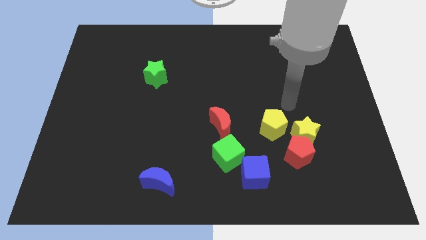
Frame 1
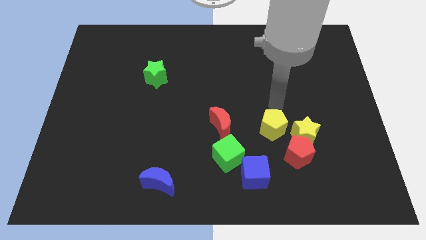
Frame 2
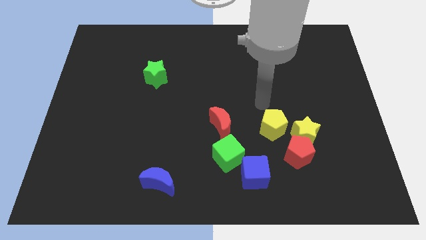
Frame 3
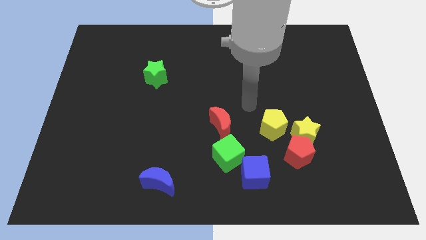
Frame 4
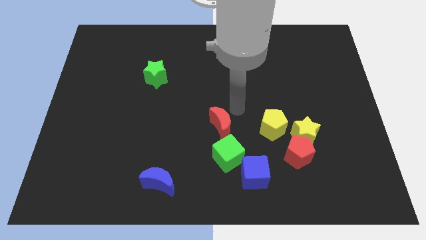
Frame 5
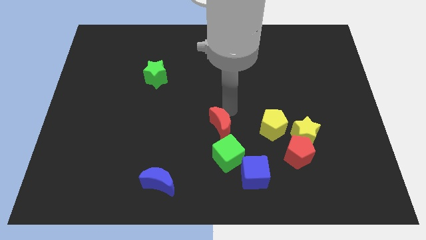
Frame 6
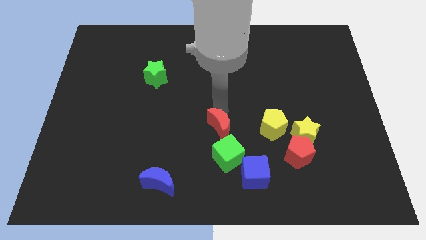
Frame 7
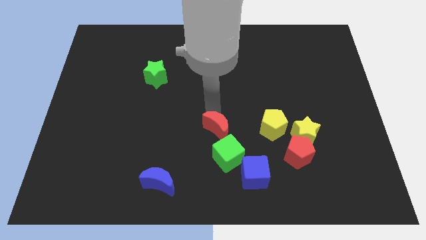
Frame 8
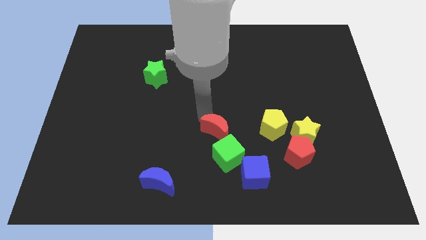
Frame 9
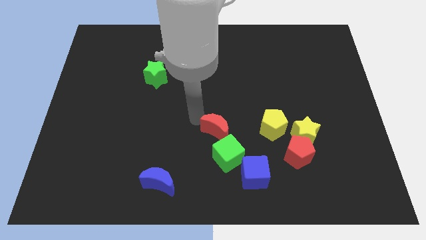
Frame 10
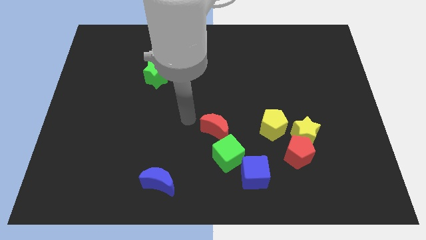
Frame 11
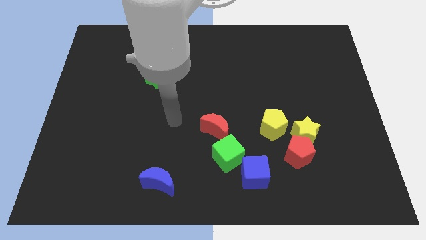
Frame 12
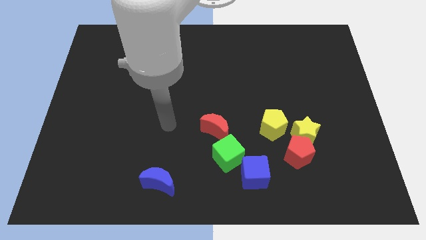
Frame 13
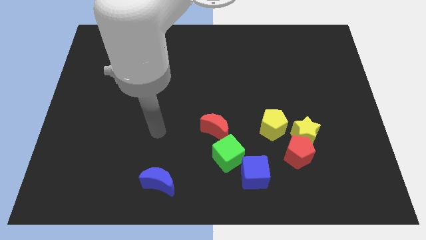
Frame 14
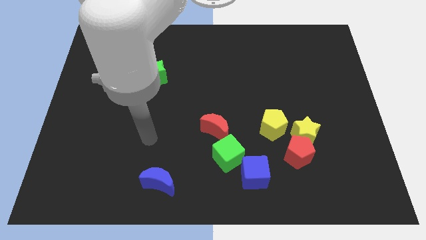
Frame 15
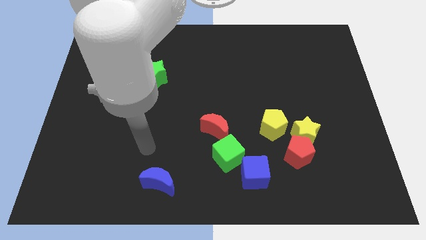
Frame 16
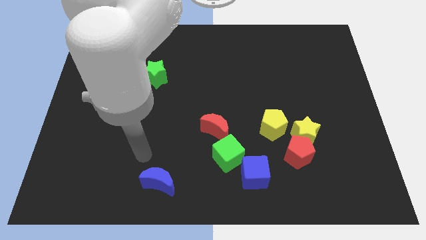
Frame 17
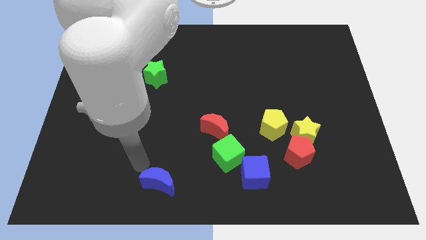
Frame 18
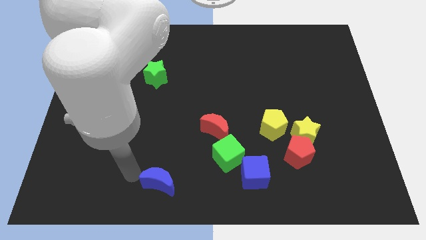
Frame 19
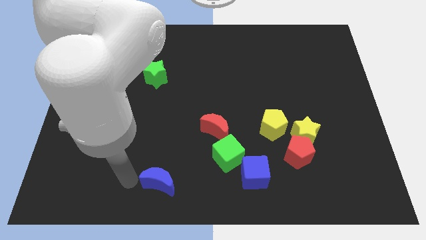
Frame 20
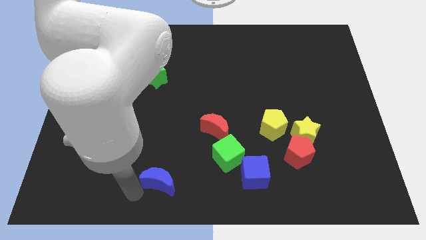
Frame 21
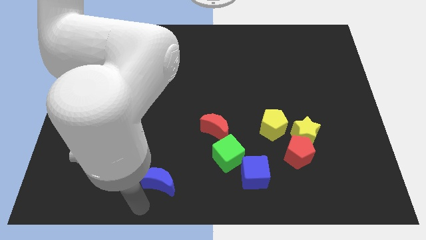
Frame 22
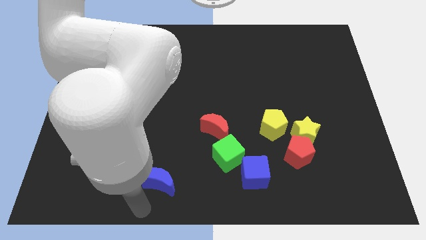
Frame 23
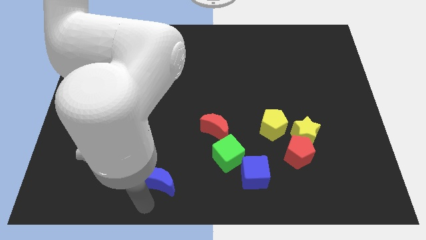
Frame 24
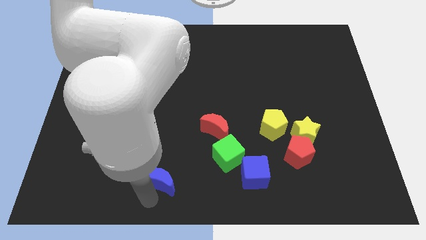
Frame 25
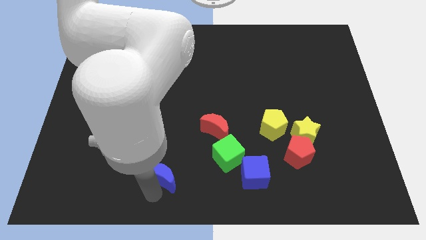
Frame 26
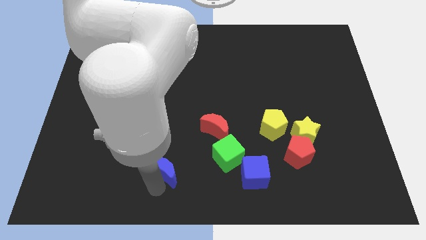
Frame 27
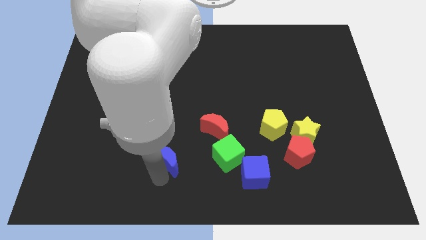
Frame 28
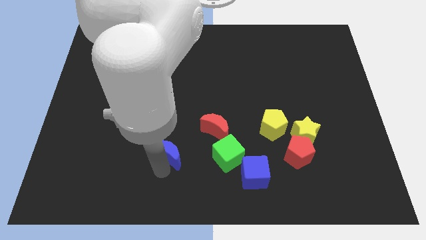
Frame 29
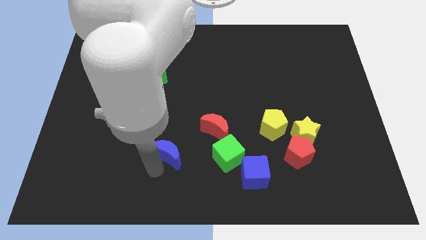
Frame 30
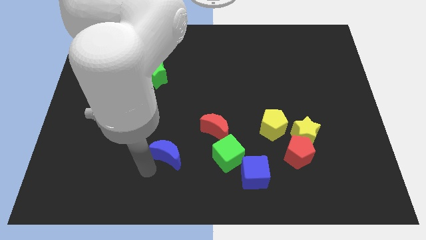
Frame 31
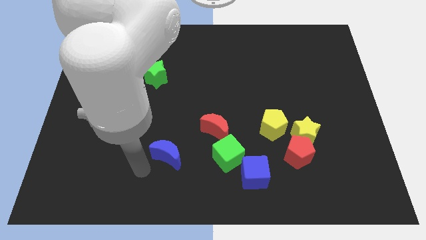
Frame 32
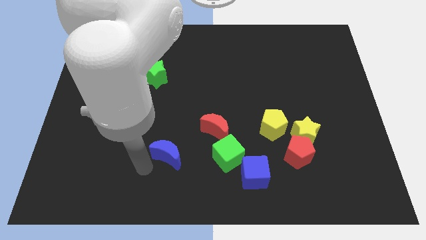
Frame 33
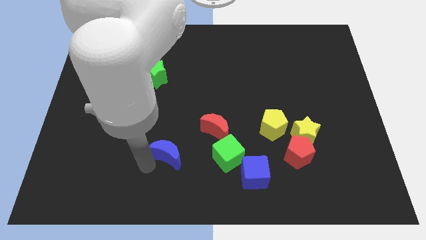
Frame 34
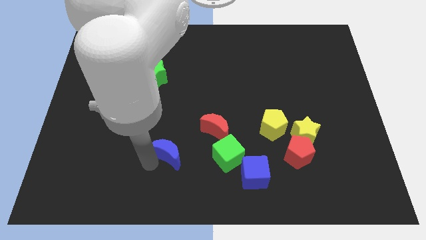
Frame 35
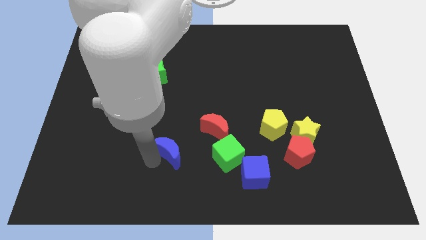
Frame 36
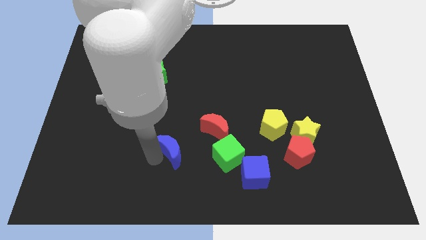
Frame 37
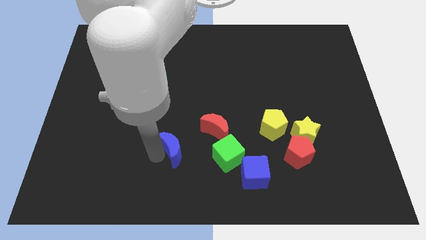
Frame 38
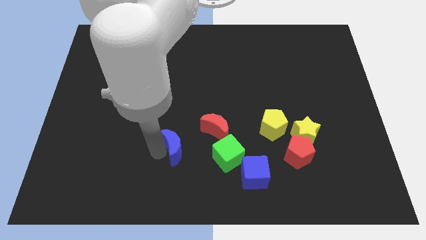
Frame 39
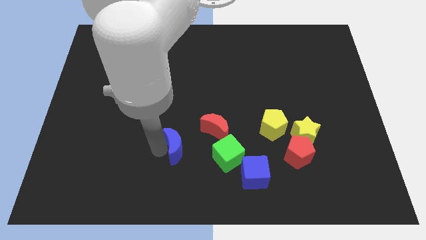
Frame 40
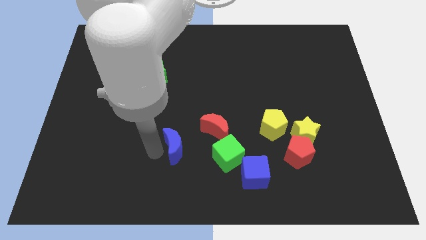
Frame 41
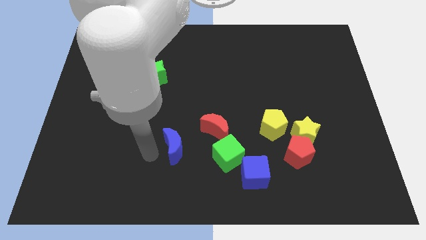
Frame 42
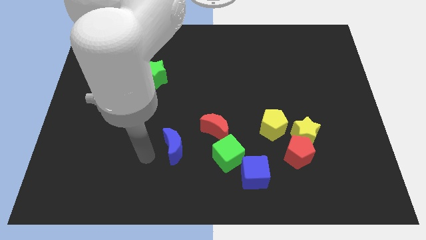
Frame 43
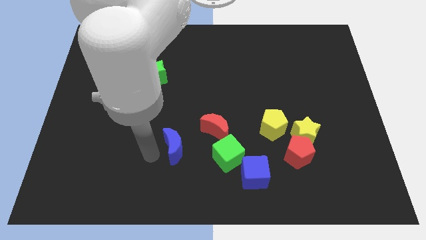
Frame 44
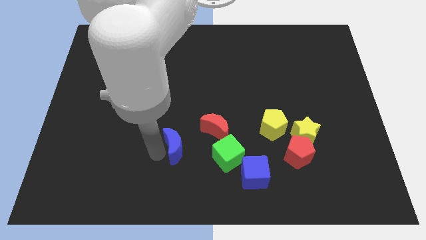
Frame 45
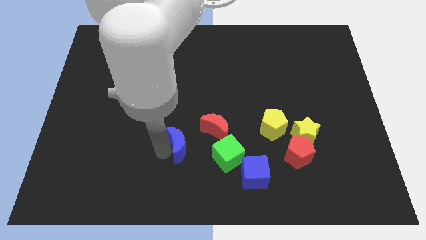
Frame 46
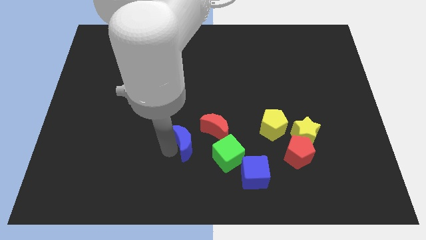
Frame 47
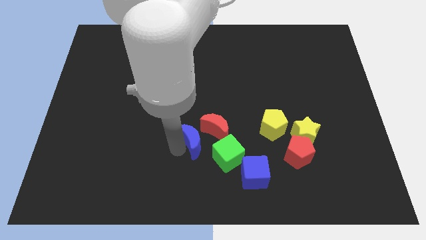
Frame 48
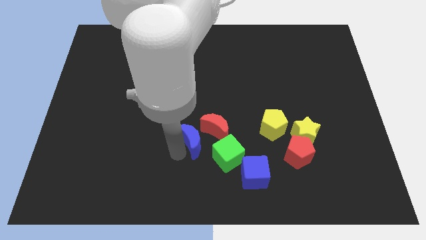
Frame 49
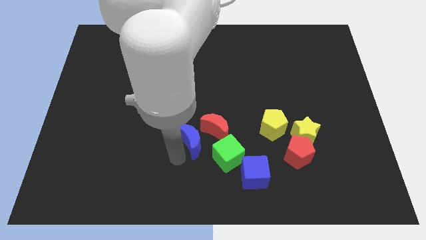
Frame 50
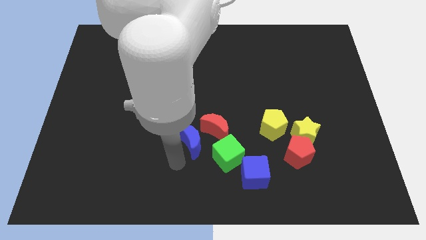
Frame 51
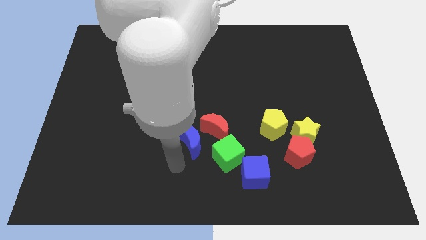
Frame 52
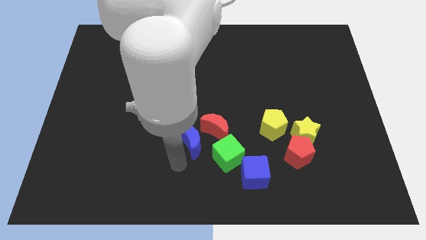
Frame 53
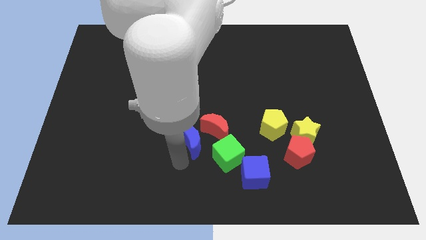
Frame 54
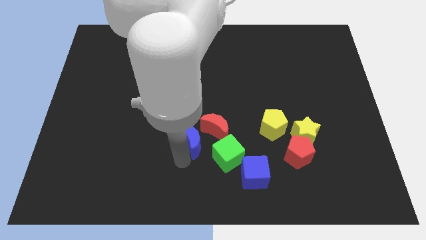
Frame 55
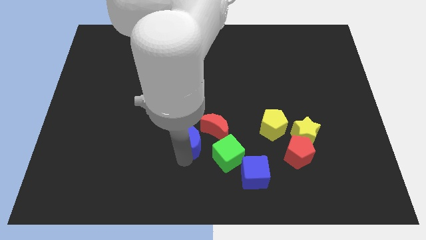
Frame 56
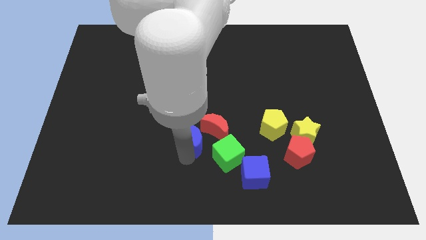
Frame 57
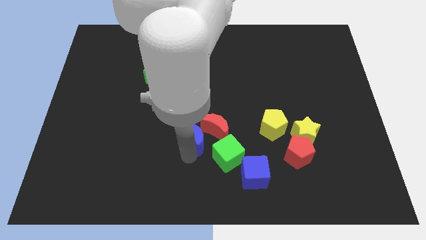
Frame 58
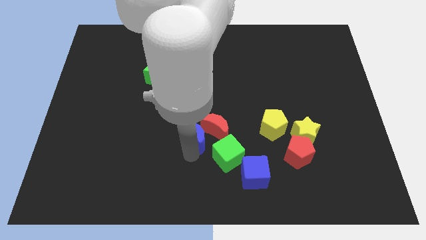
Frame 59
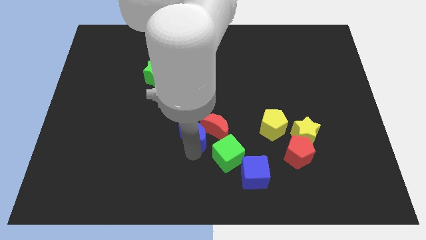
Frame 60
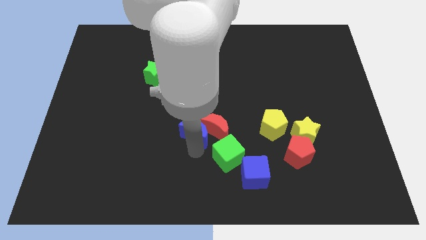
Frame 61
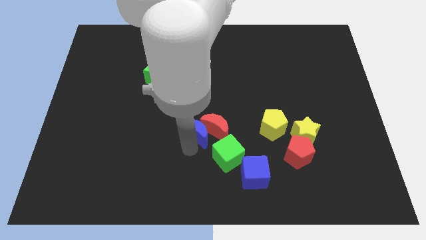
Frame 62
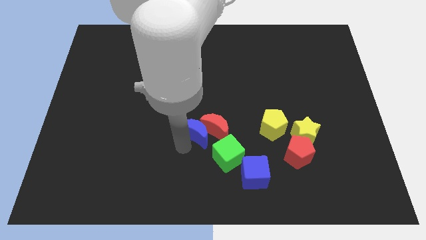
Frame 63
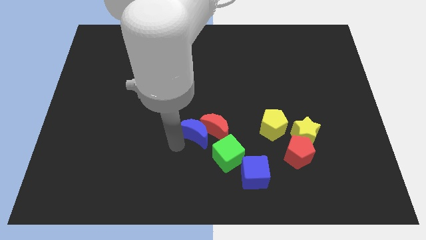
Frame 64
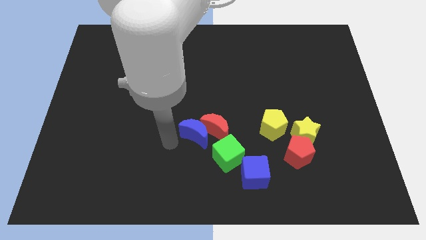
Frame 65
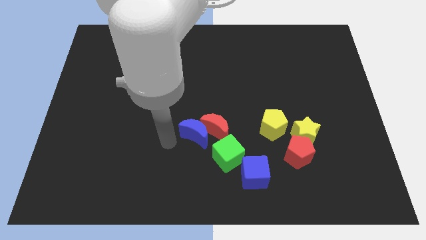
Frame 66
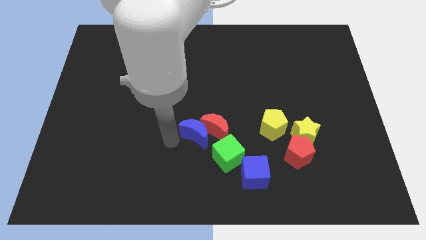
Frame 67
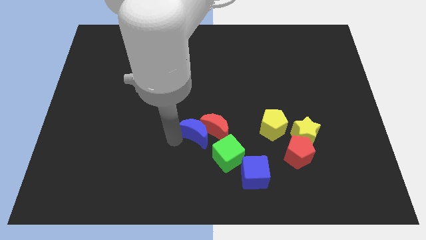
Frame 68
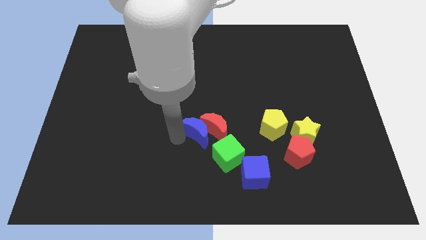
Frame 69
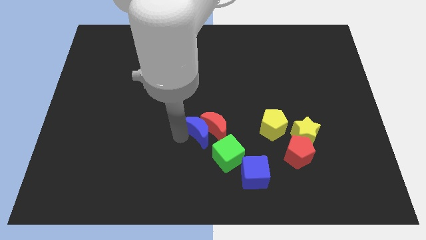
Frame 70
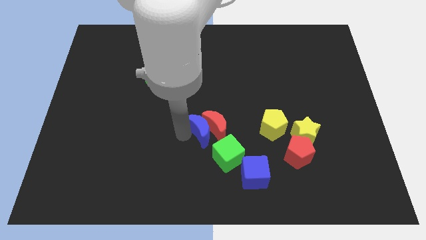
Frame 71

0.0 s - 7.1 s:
move the blue moon to the left side of the yellow pentagon

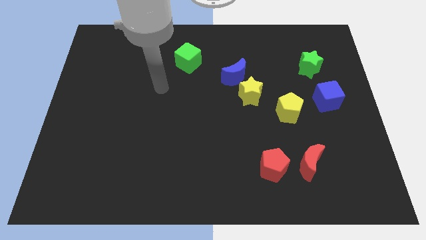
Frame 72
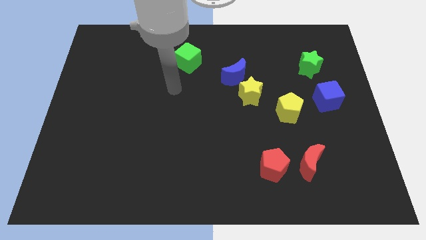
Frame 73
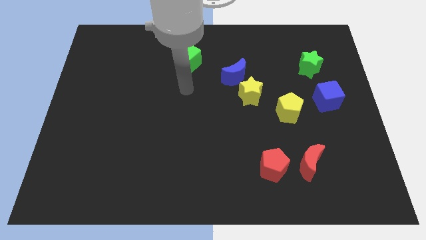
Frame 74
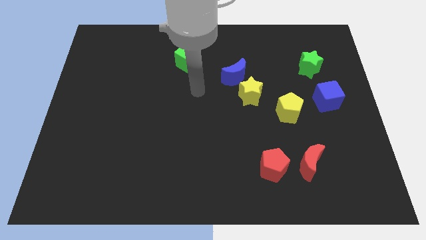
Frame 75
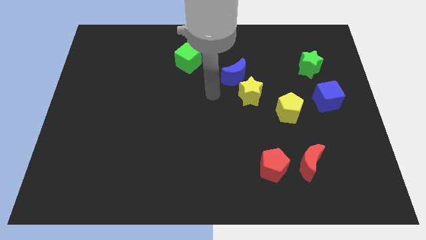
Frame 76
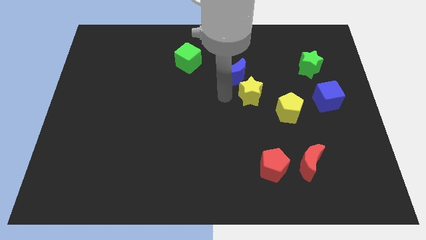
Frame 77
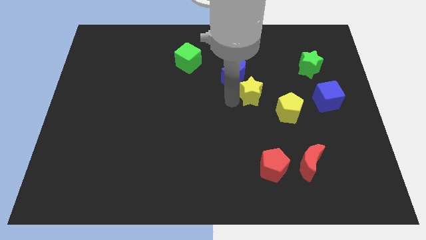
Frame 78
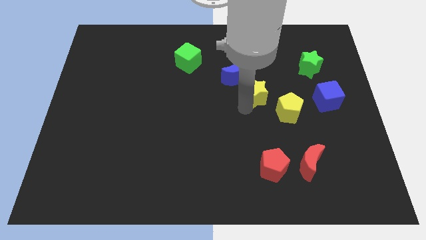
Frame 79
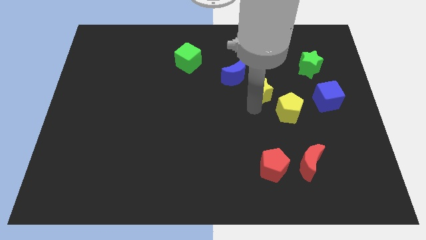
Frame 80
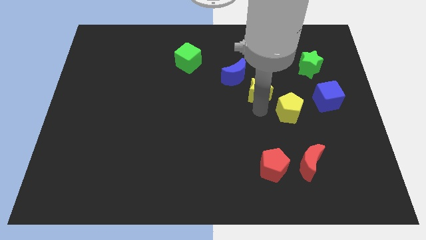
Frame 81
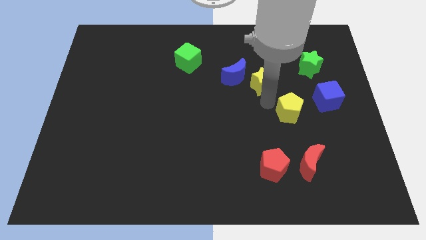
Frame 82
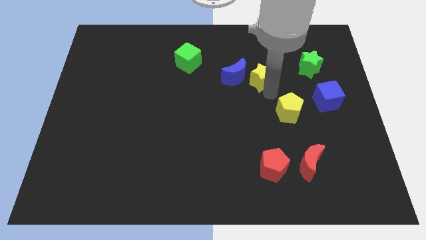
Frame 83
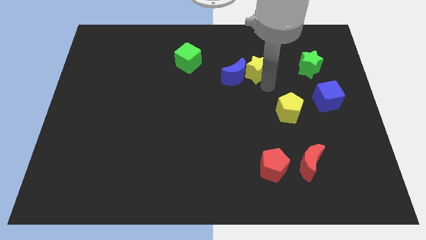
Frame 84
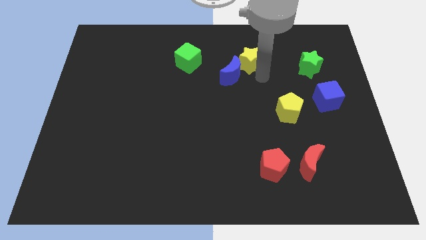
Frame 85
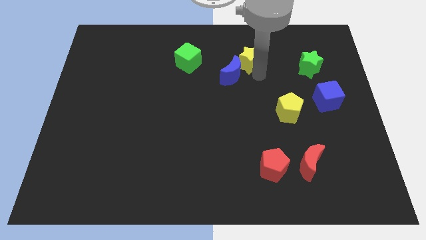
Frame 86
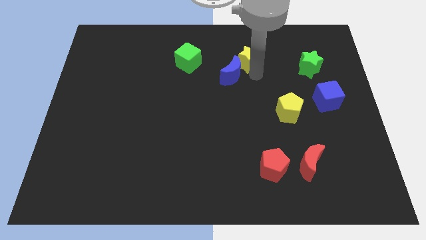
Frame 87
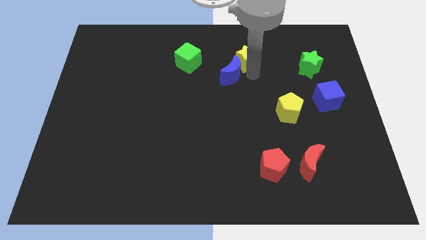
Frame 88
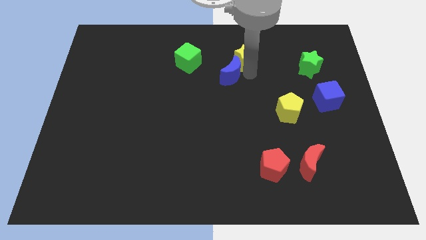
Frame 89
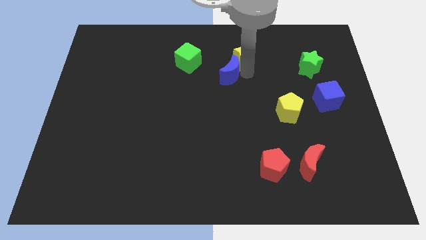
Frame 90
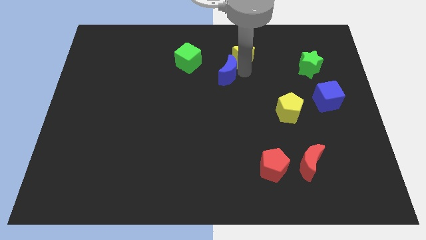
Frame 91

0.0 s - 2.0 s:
slide the blue moon diagonally down and to the right of the green cube
